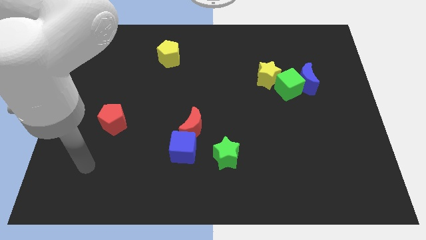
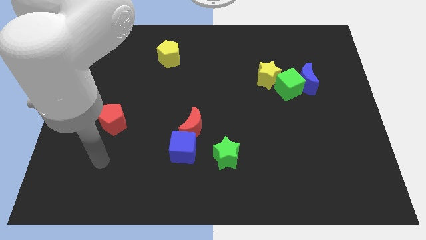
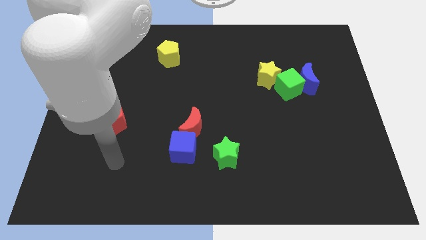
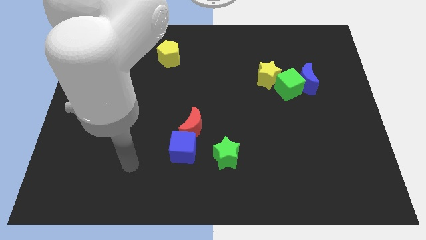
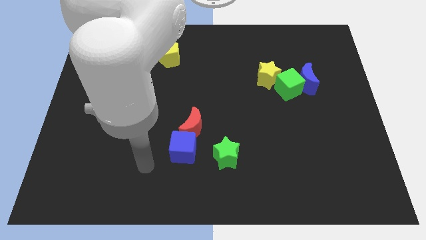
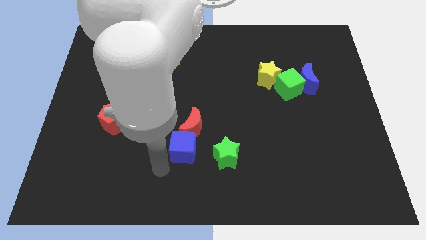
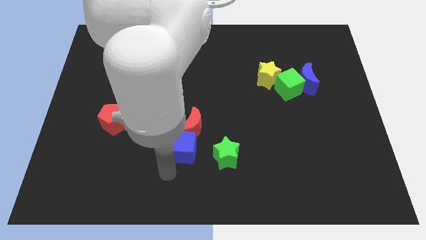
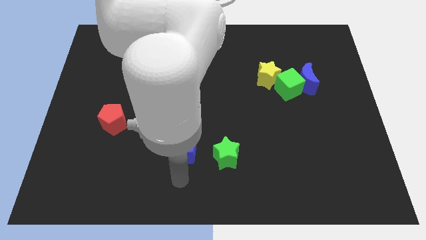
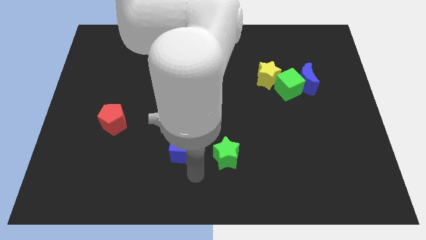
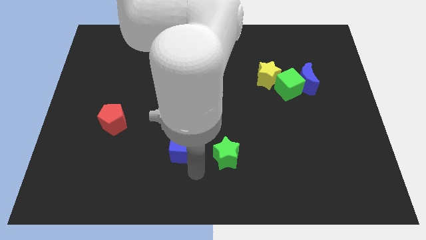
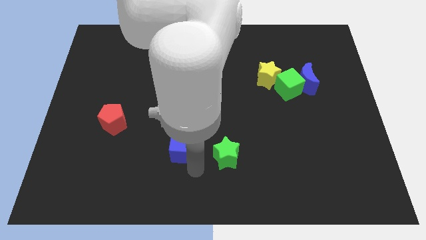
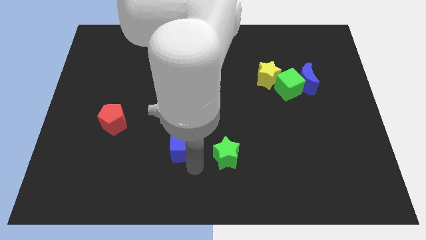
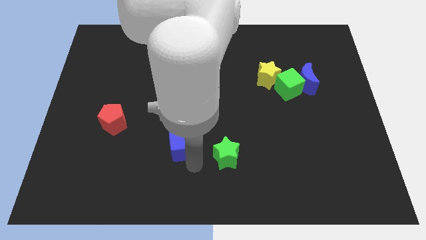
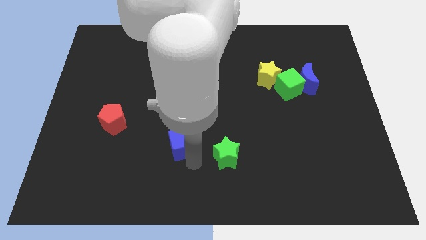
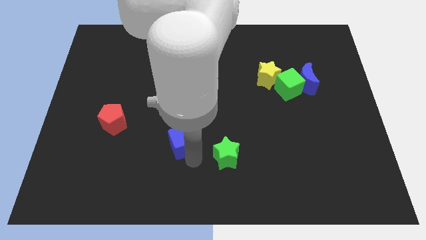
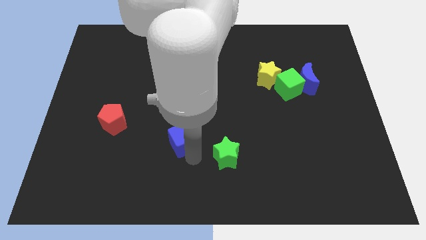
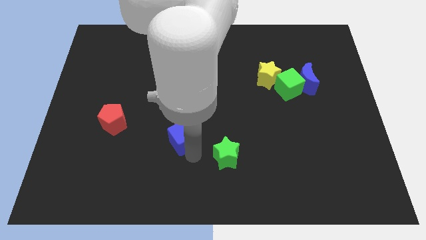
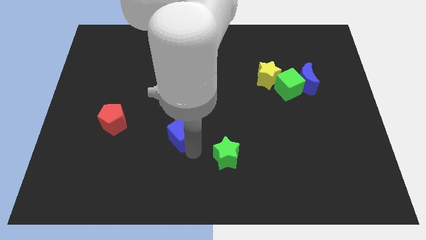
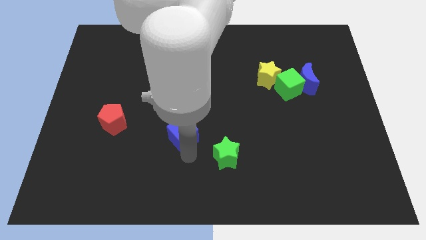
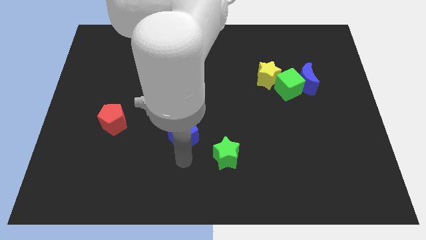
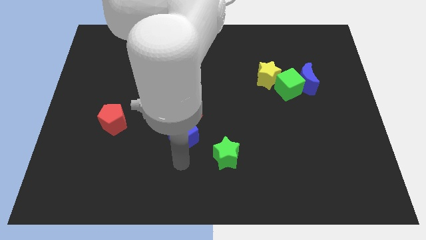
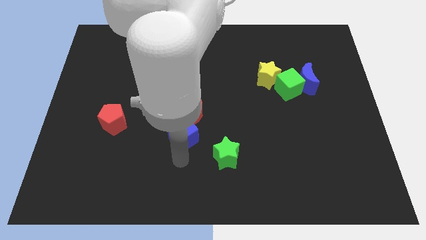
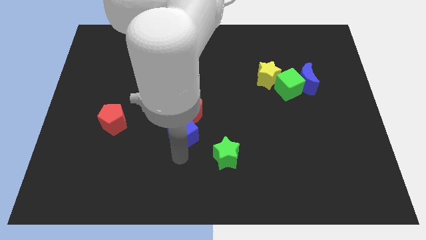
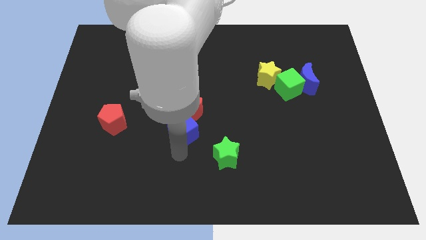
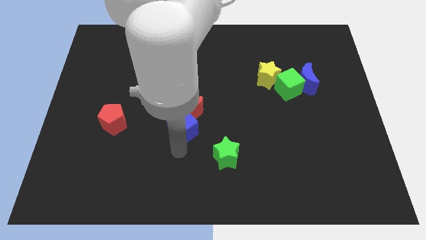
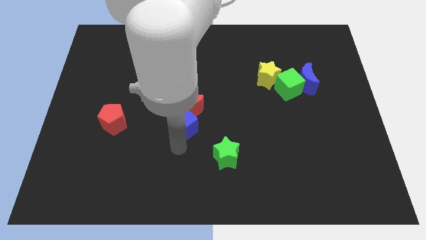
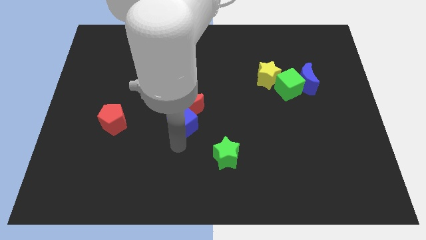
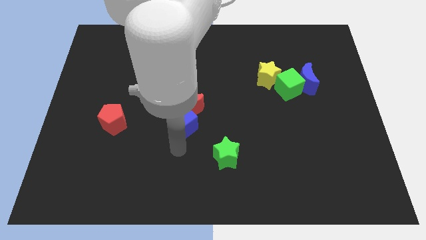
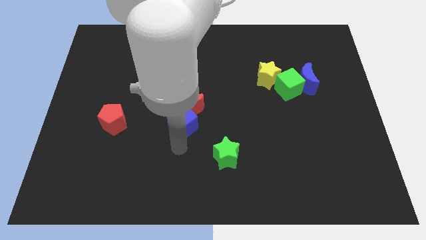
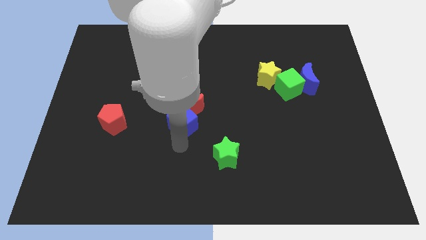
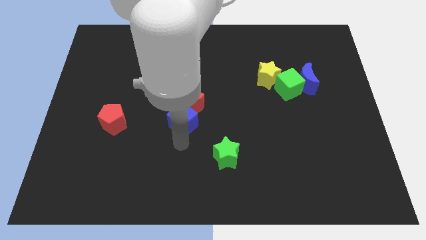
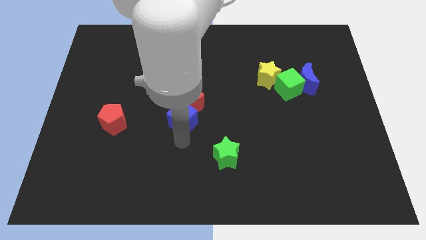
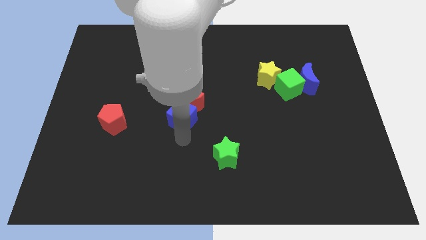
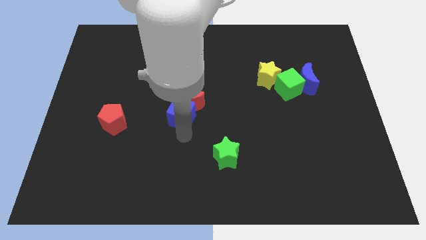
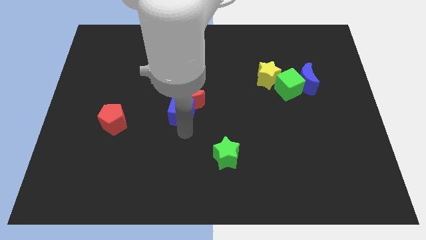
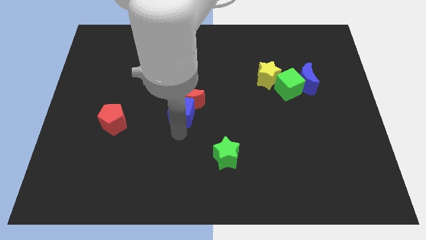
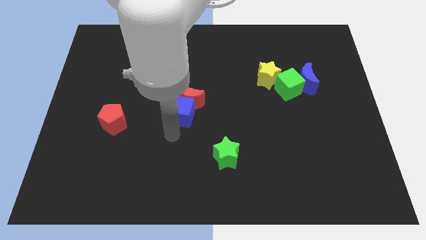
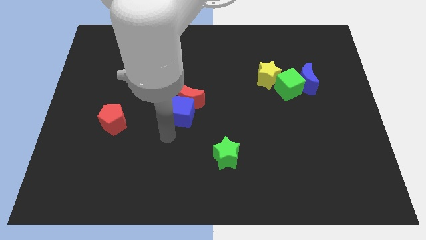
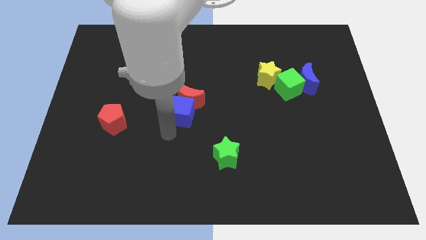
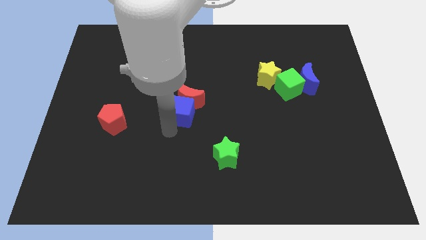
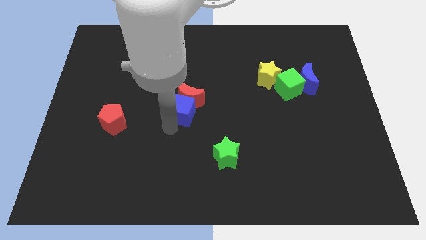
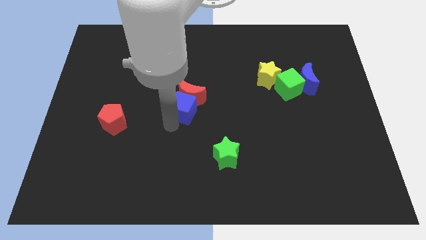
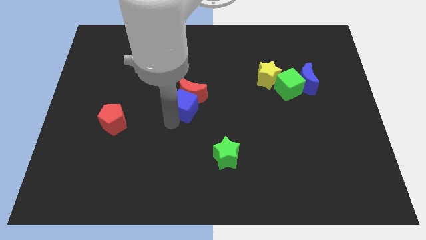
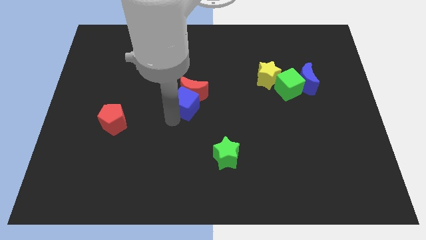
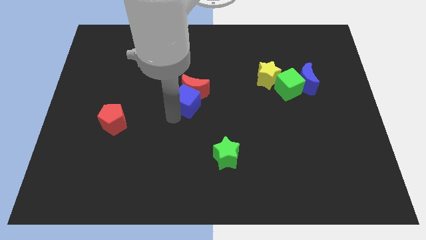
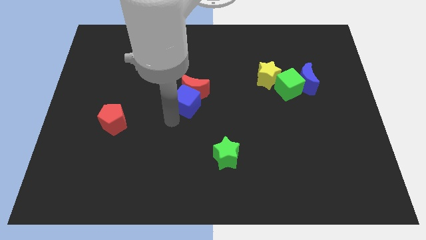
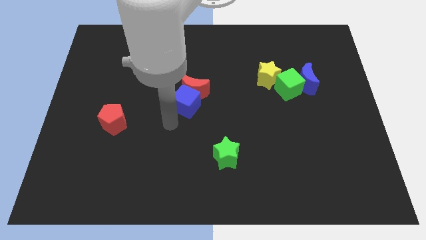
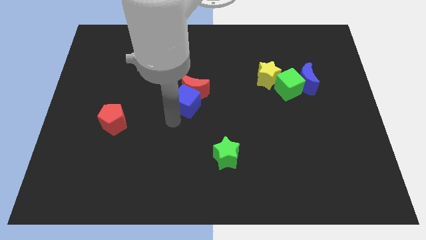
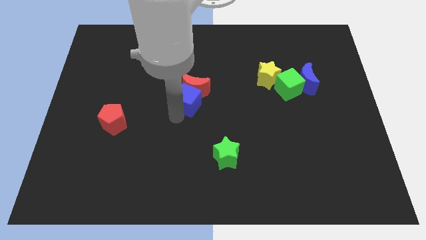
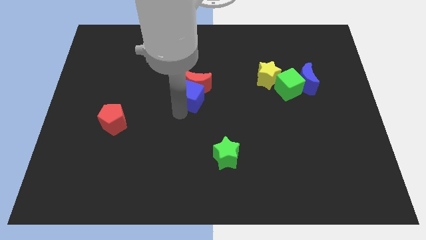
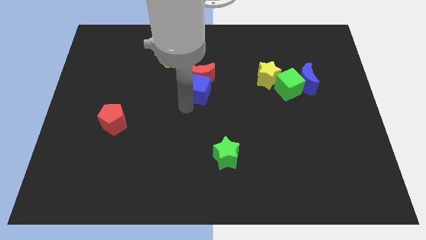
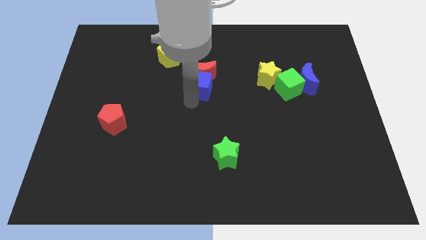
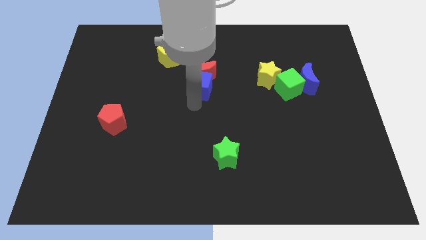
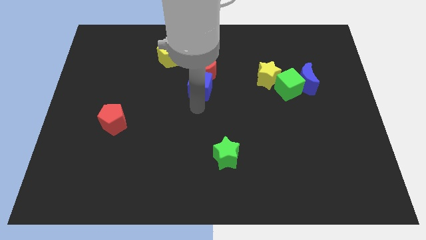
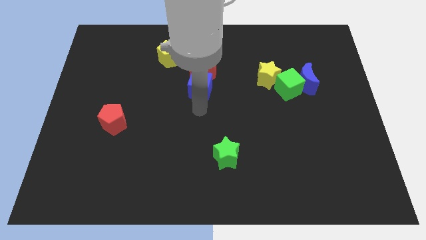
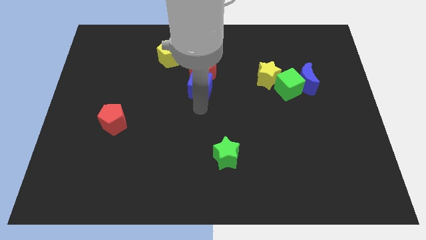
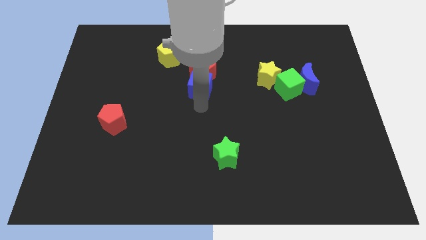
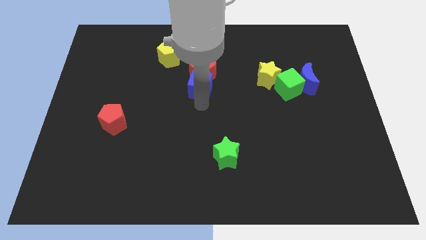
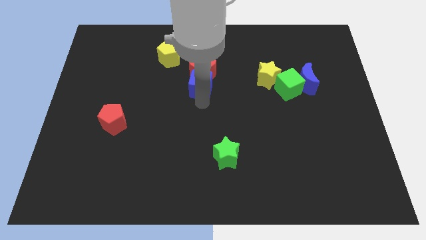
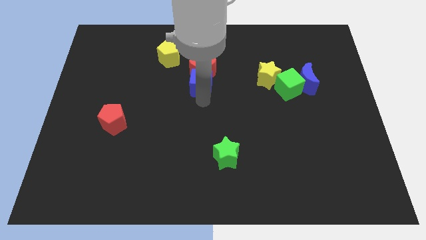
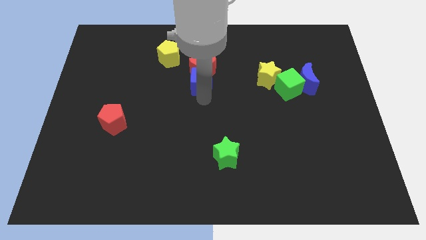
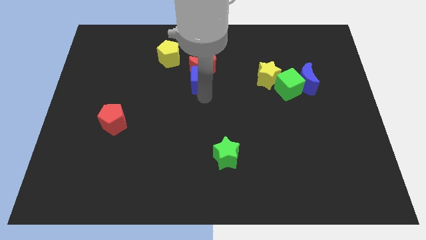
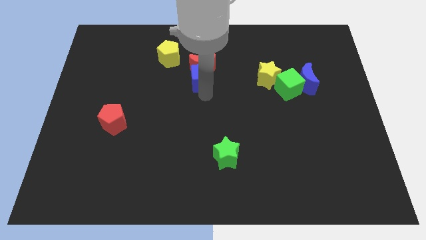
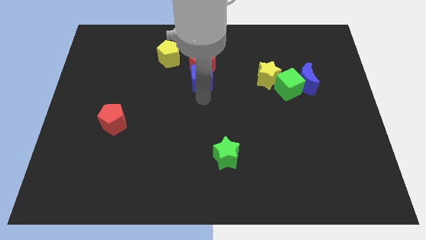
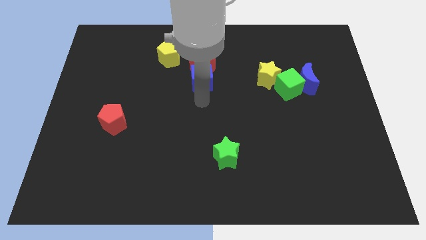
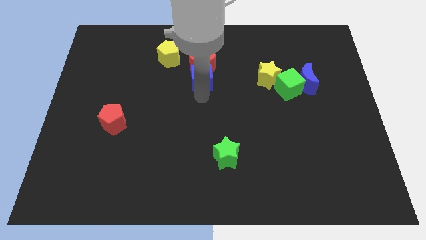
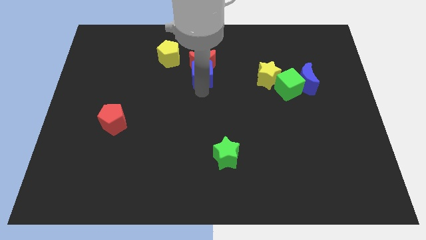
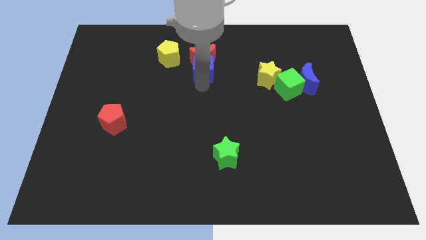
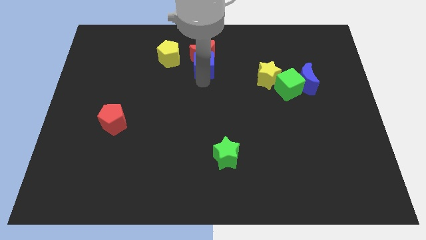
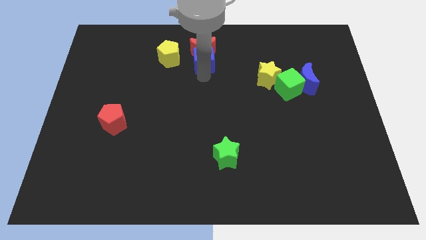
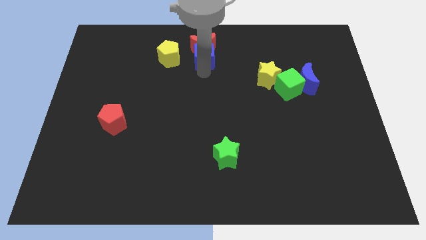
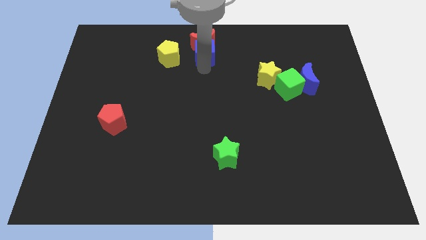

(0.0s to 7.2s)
move the blue cube to the top

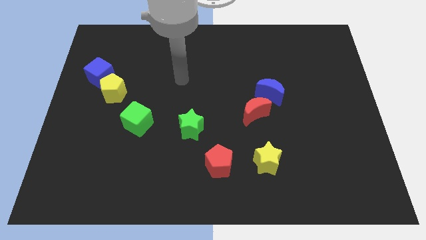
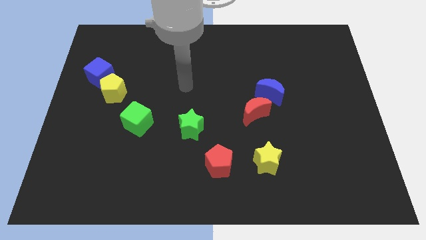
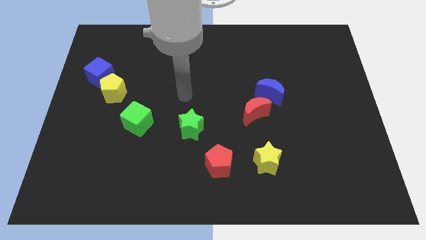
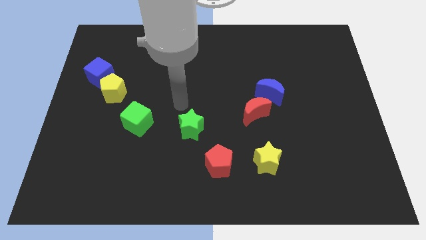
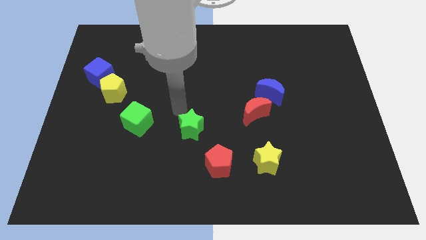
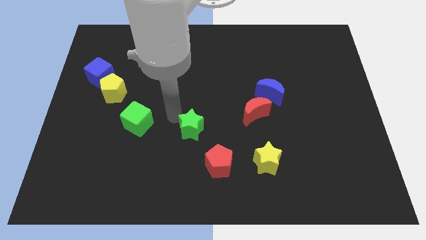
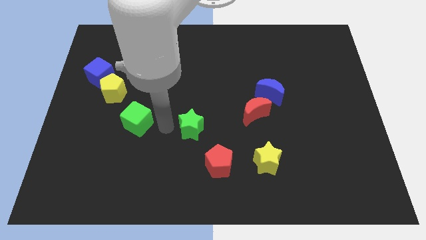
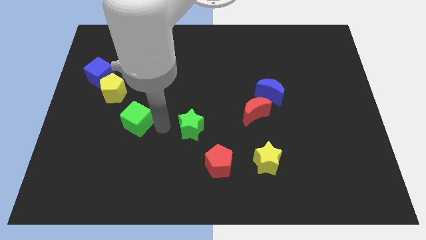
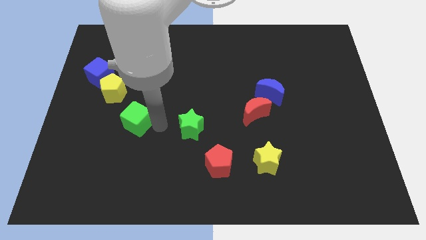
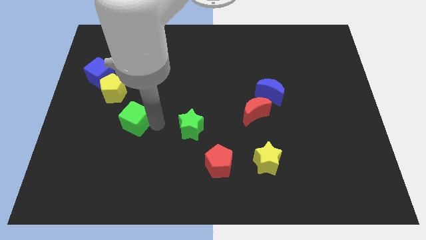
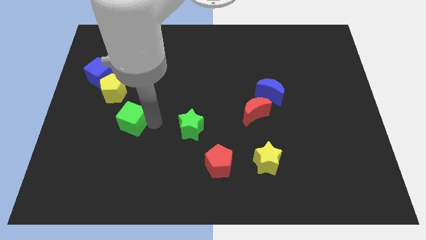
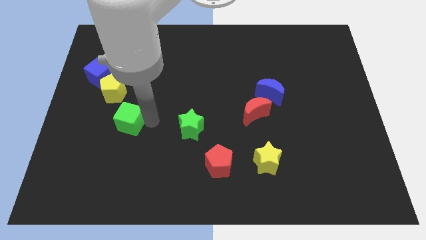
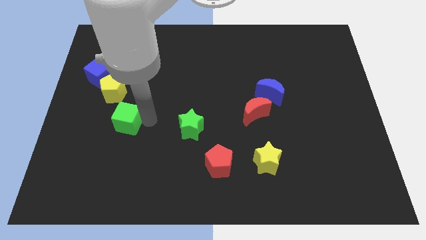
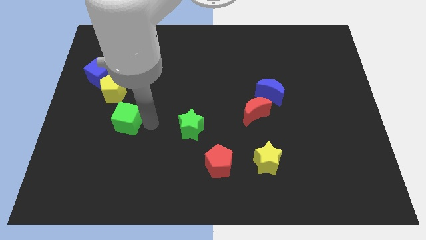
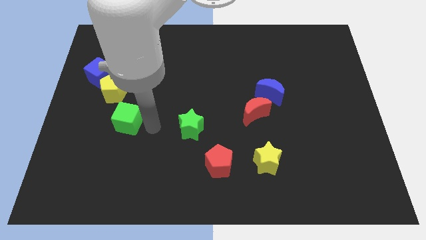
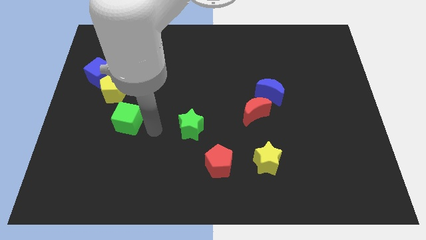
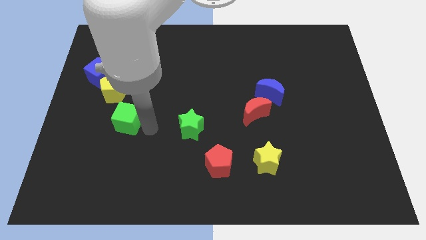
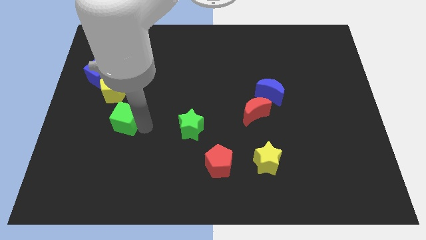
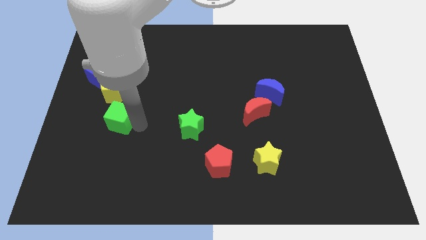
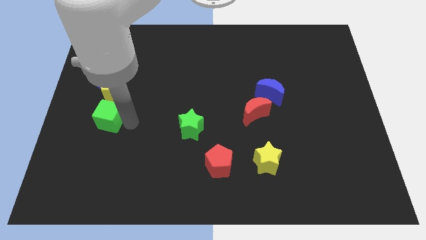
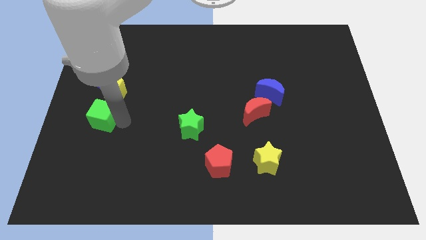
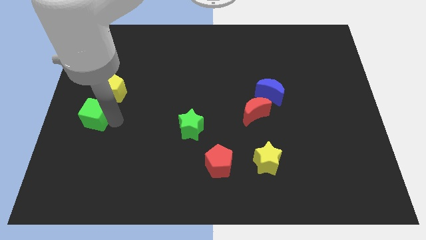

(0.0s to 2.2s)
put the green cube to the center left
